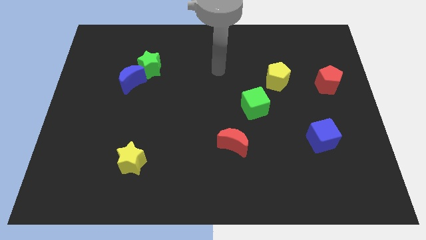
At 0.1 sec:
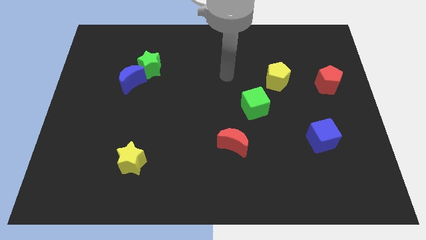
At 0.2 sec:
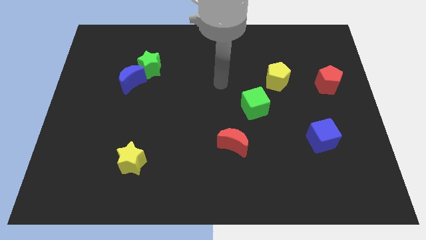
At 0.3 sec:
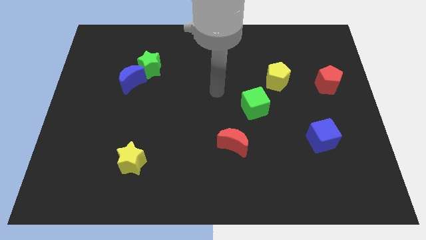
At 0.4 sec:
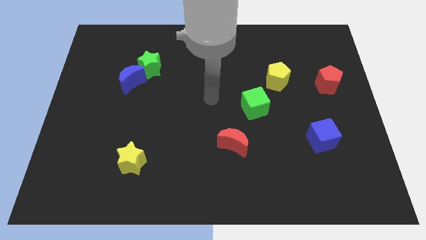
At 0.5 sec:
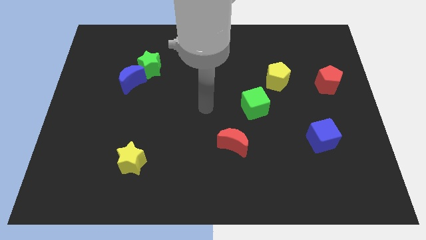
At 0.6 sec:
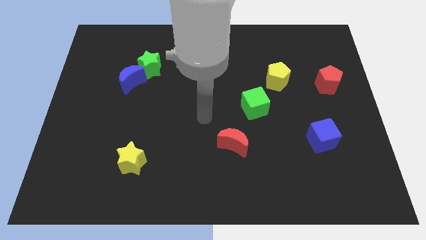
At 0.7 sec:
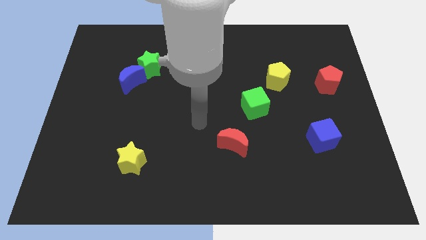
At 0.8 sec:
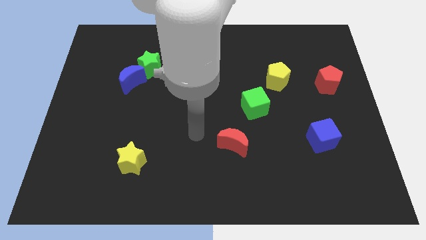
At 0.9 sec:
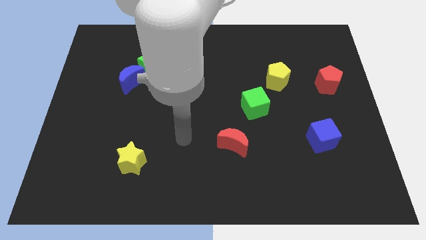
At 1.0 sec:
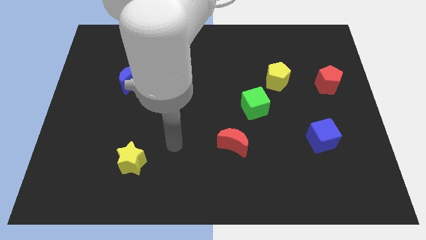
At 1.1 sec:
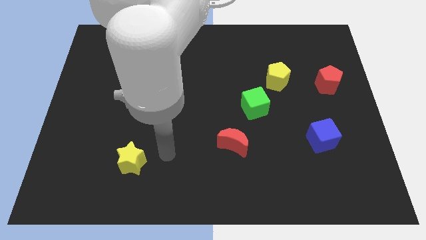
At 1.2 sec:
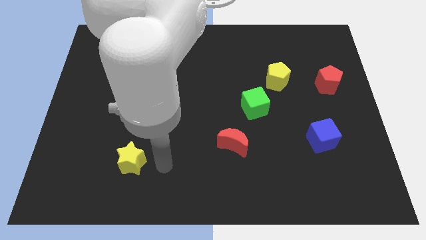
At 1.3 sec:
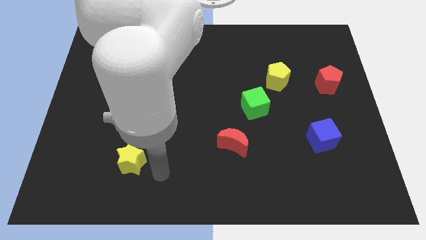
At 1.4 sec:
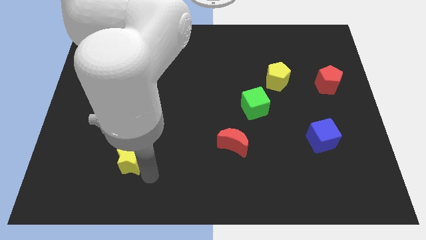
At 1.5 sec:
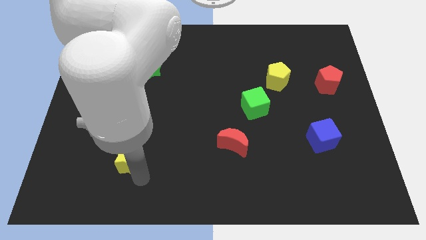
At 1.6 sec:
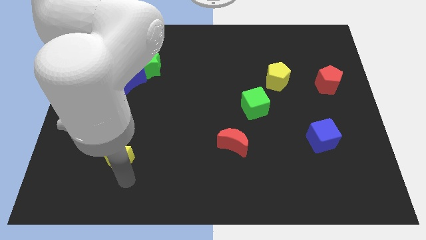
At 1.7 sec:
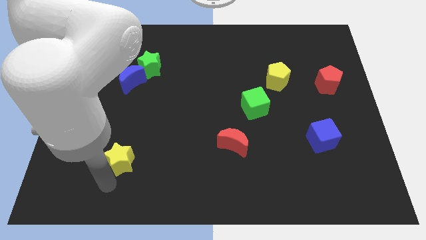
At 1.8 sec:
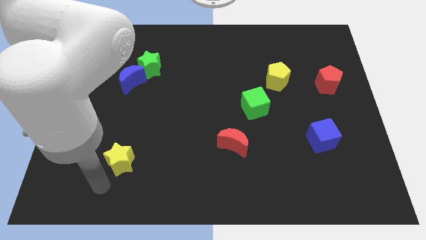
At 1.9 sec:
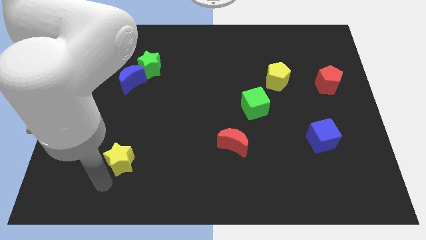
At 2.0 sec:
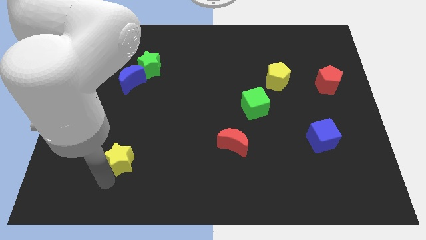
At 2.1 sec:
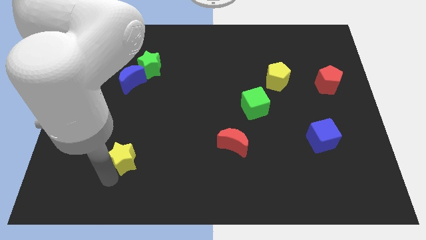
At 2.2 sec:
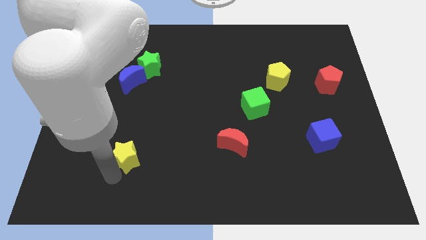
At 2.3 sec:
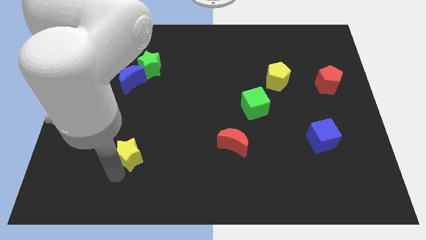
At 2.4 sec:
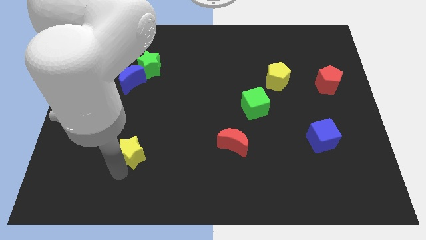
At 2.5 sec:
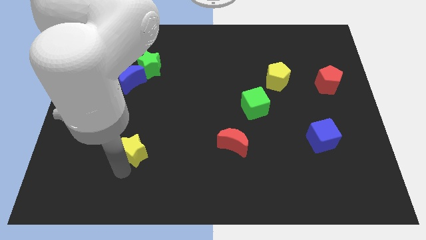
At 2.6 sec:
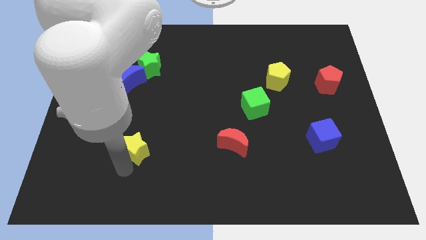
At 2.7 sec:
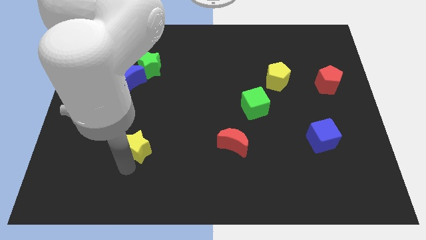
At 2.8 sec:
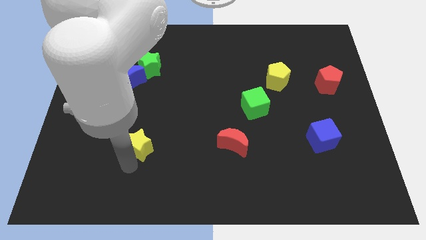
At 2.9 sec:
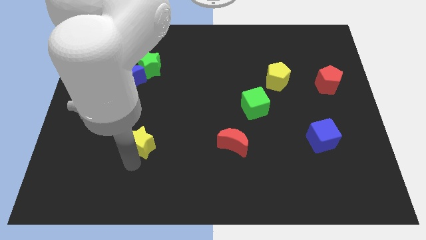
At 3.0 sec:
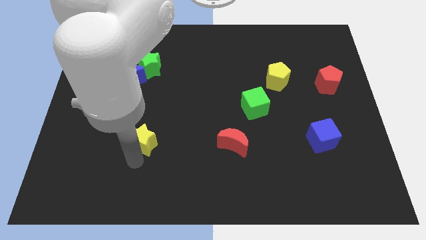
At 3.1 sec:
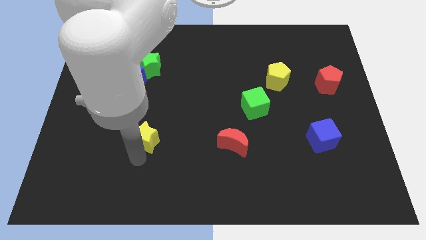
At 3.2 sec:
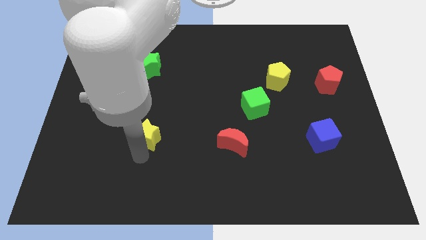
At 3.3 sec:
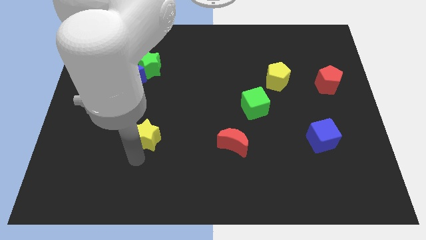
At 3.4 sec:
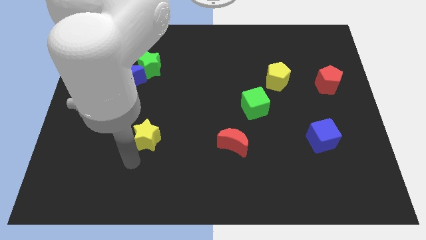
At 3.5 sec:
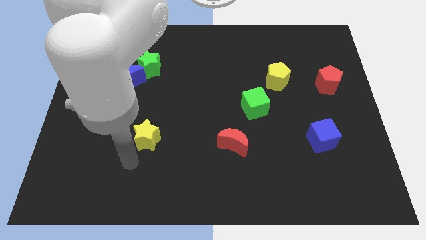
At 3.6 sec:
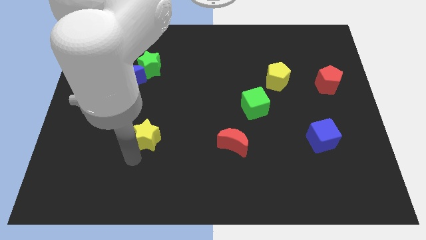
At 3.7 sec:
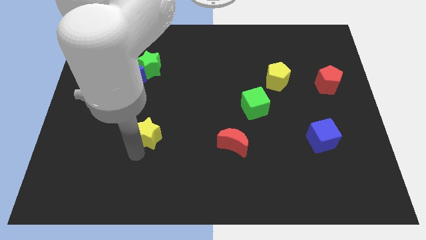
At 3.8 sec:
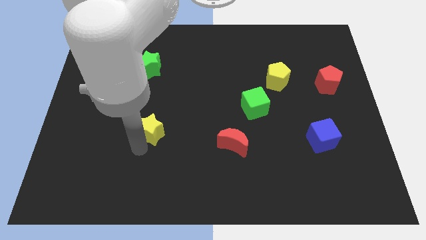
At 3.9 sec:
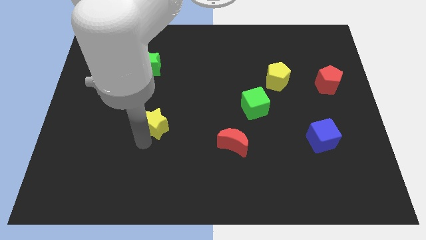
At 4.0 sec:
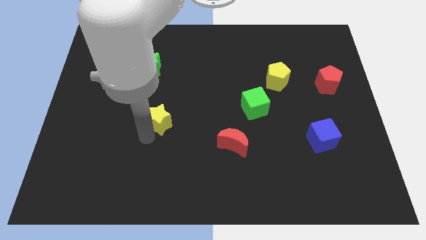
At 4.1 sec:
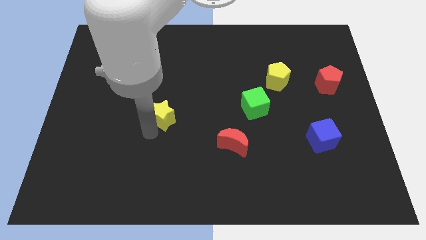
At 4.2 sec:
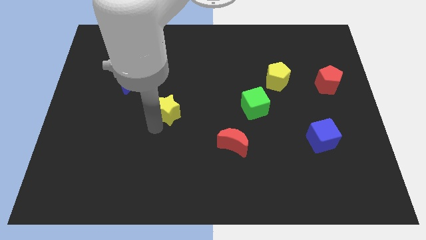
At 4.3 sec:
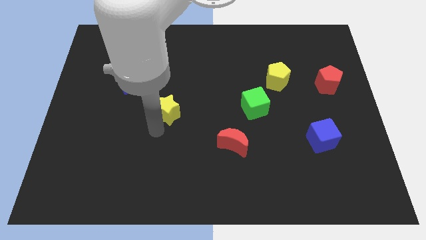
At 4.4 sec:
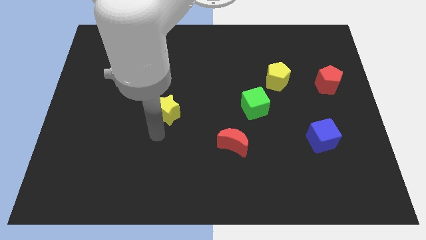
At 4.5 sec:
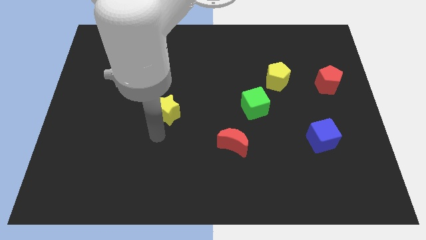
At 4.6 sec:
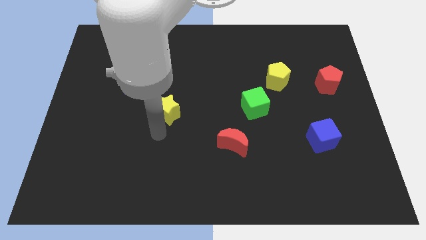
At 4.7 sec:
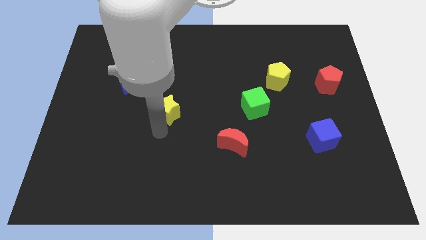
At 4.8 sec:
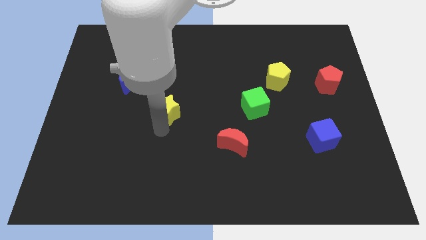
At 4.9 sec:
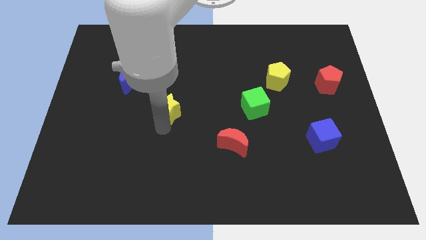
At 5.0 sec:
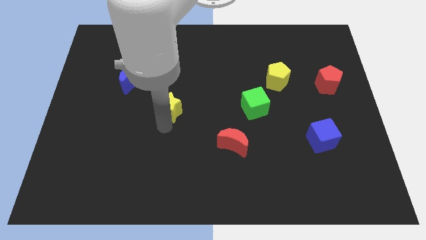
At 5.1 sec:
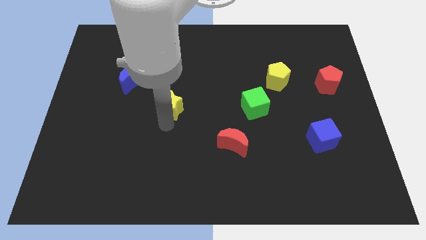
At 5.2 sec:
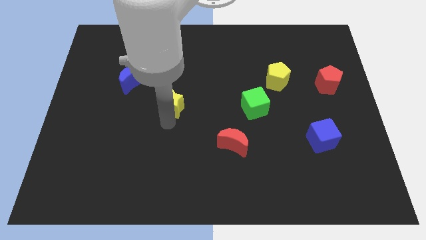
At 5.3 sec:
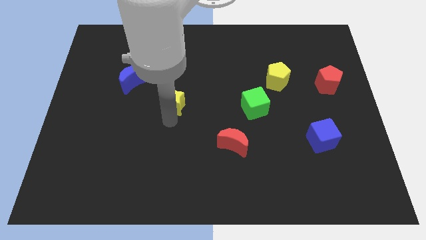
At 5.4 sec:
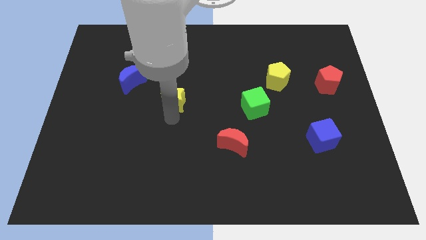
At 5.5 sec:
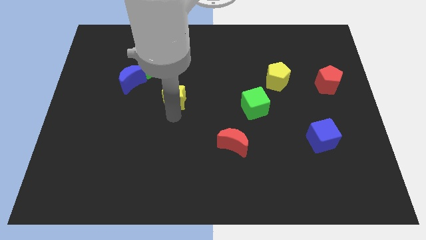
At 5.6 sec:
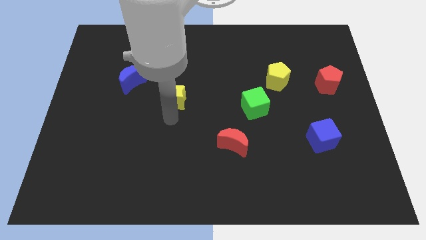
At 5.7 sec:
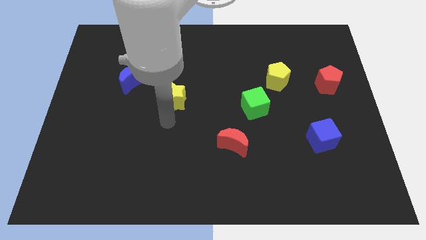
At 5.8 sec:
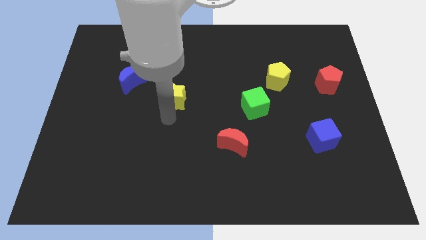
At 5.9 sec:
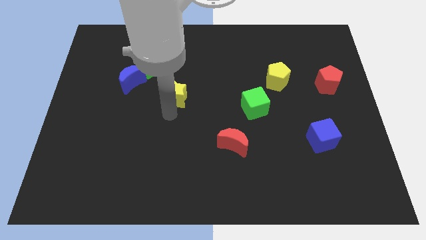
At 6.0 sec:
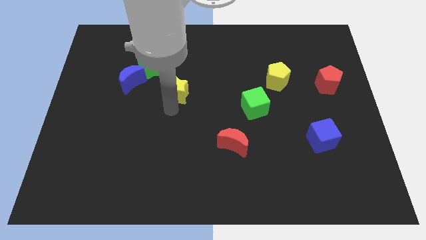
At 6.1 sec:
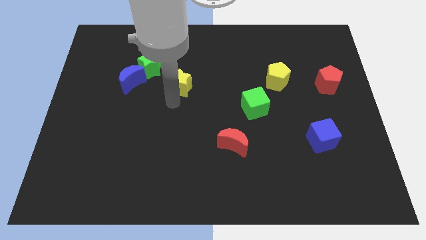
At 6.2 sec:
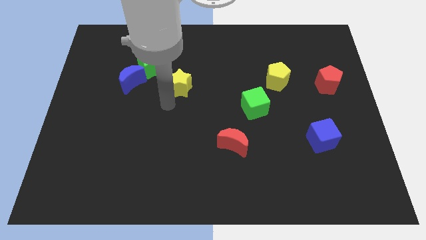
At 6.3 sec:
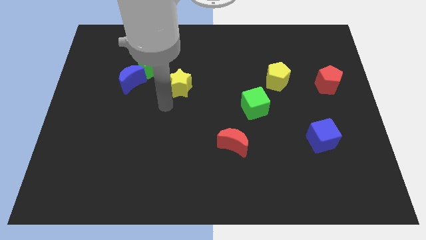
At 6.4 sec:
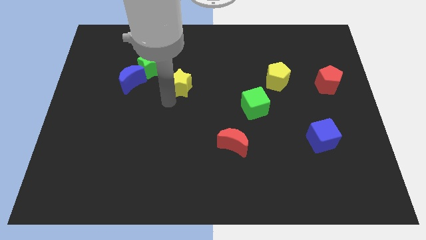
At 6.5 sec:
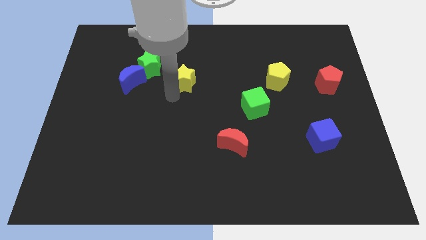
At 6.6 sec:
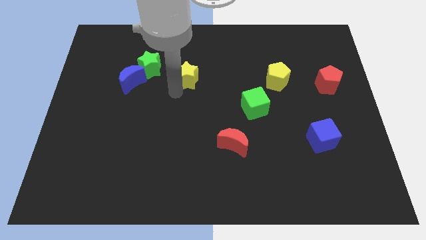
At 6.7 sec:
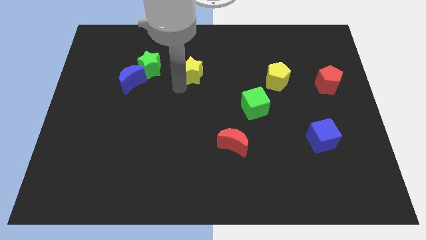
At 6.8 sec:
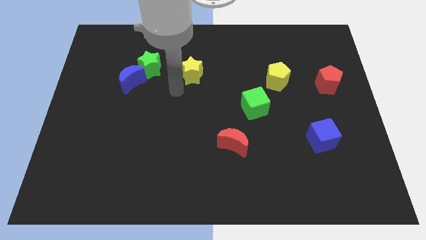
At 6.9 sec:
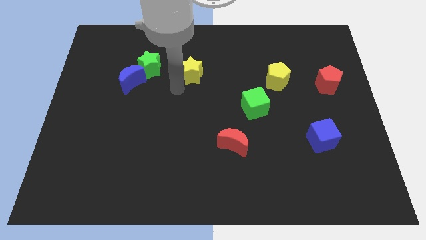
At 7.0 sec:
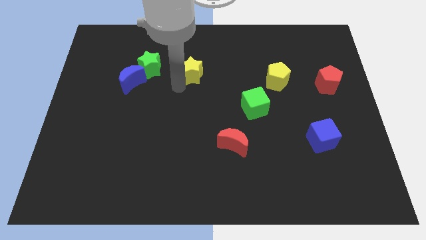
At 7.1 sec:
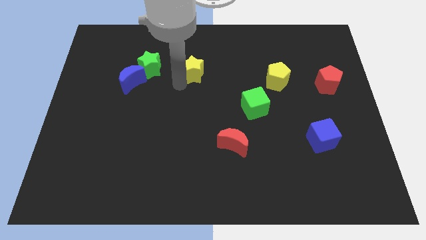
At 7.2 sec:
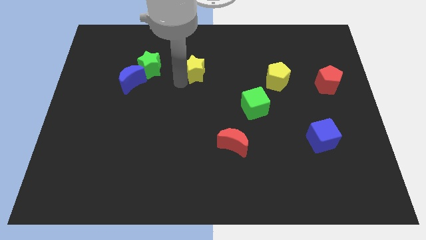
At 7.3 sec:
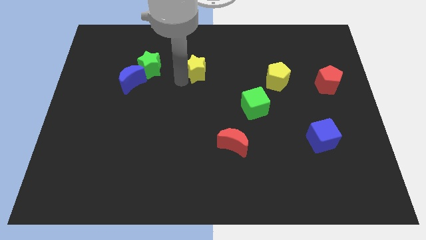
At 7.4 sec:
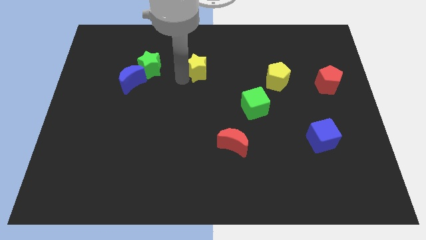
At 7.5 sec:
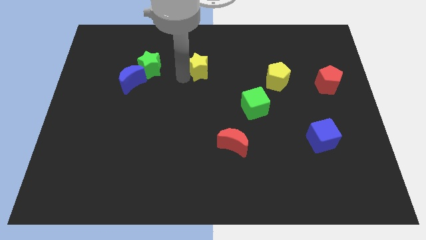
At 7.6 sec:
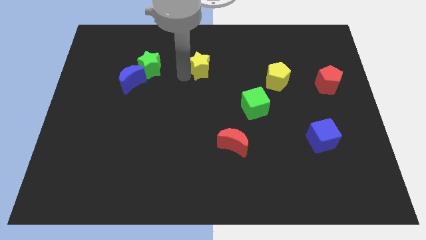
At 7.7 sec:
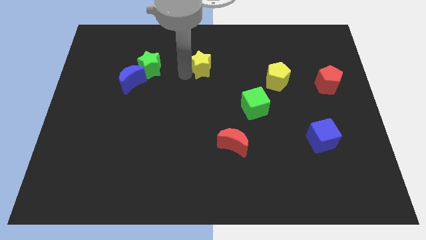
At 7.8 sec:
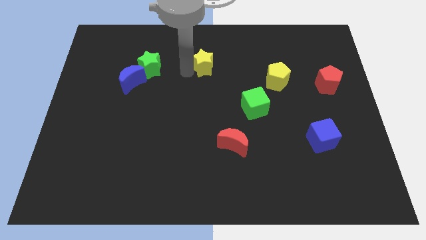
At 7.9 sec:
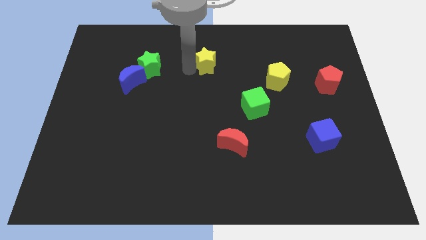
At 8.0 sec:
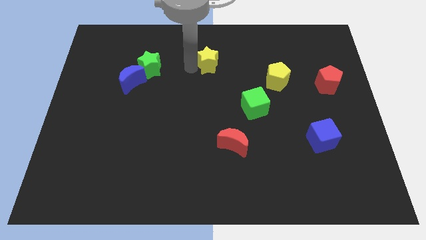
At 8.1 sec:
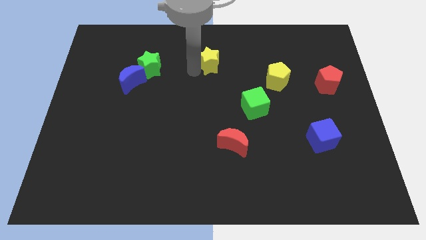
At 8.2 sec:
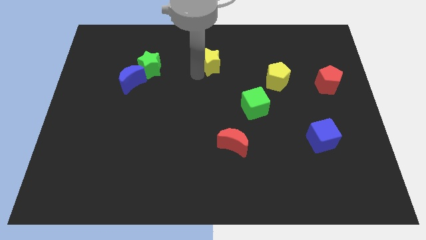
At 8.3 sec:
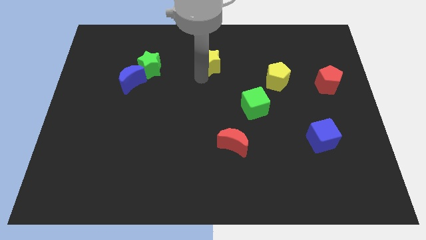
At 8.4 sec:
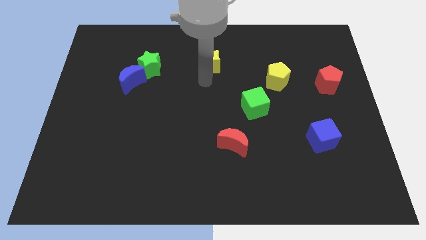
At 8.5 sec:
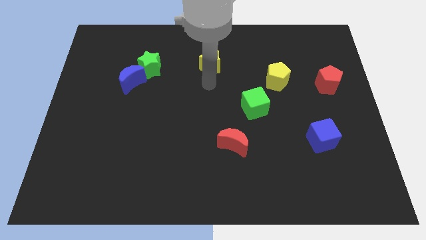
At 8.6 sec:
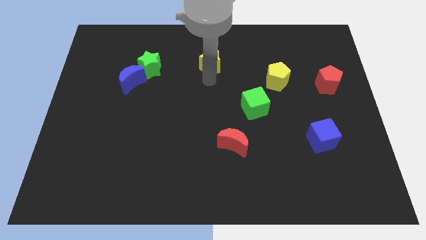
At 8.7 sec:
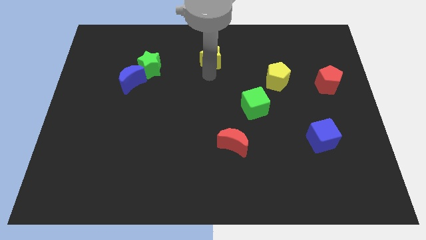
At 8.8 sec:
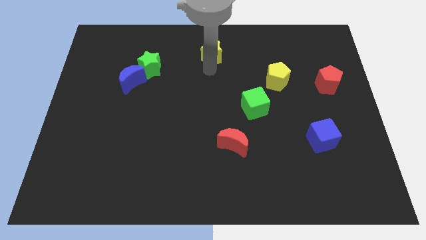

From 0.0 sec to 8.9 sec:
put the yellow star to the top side
